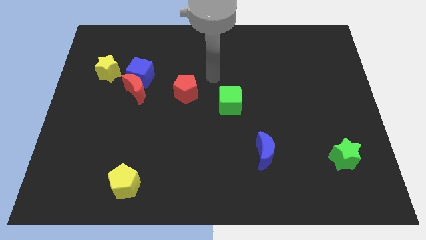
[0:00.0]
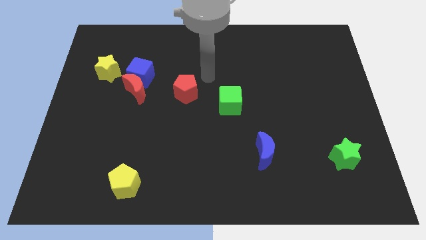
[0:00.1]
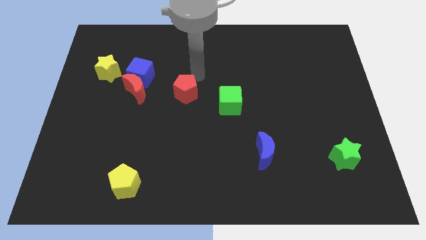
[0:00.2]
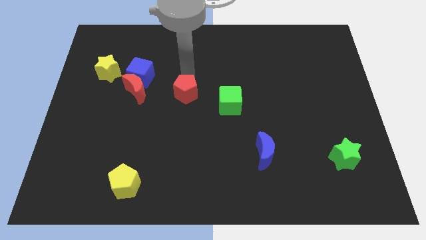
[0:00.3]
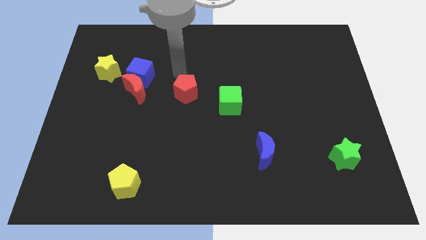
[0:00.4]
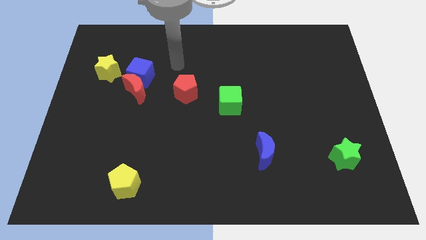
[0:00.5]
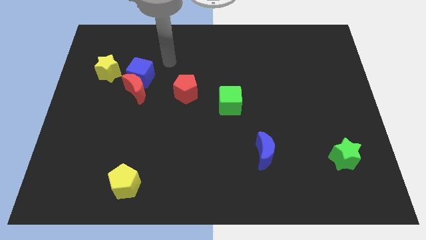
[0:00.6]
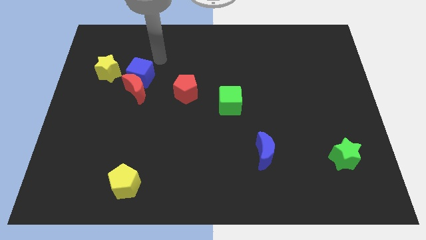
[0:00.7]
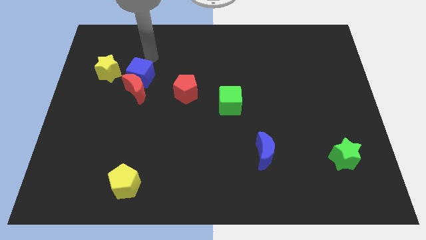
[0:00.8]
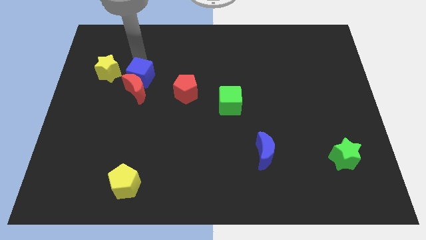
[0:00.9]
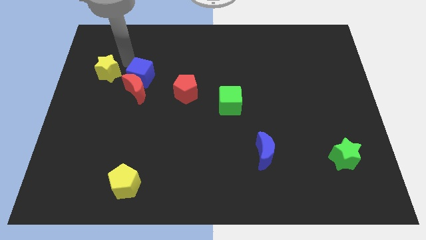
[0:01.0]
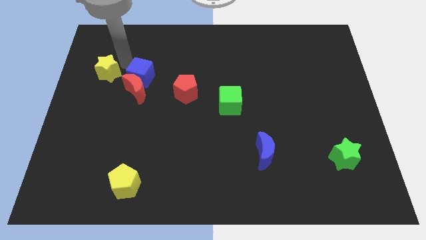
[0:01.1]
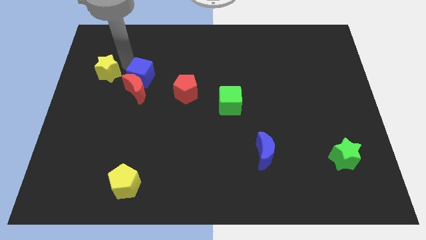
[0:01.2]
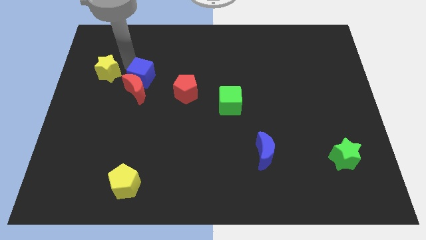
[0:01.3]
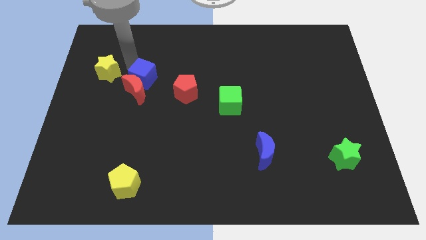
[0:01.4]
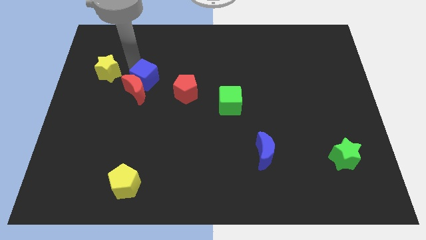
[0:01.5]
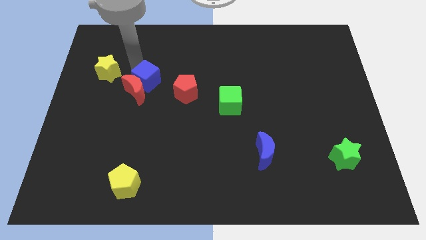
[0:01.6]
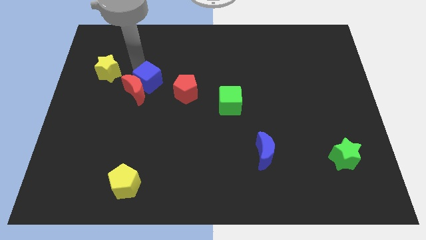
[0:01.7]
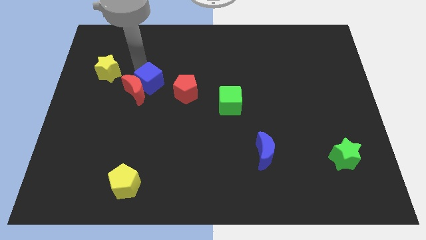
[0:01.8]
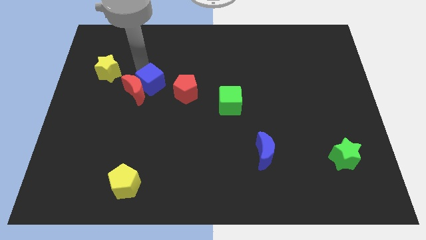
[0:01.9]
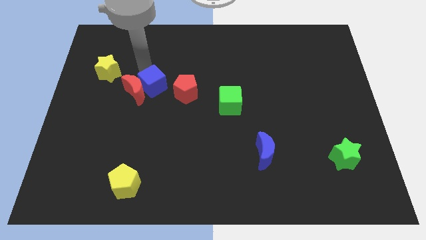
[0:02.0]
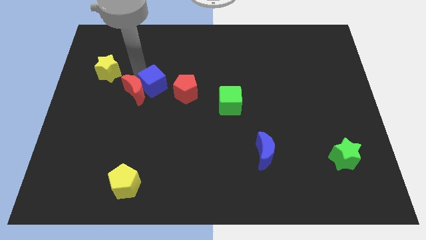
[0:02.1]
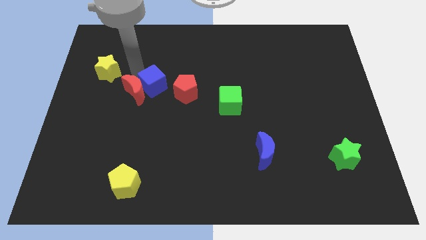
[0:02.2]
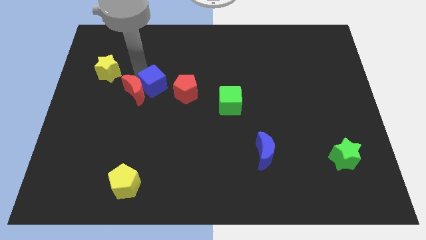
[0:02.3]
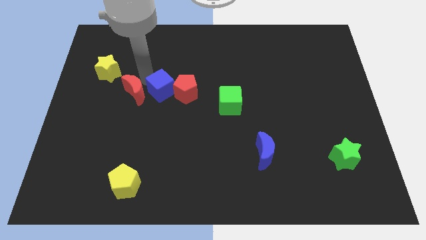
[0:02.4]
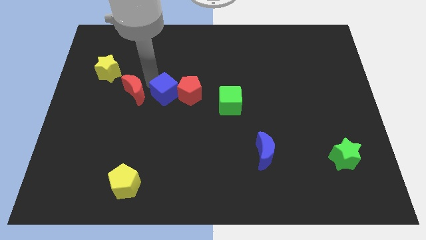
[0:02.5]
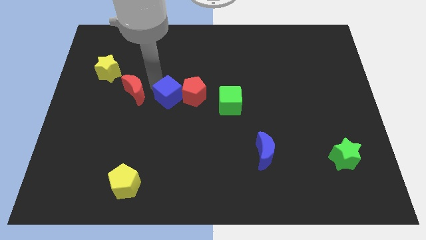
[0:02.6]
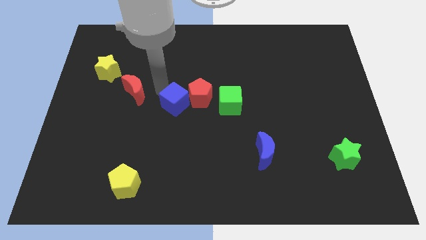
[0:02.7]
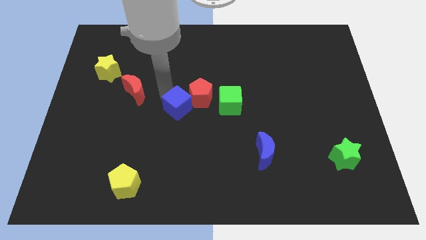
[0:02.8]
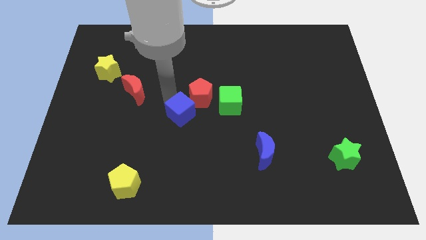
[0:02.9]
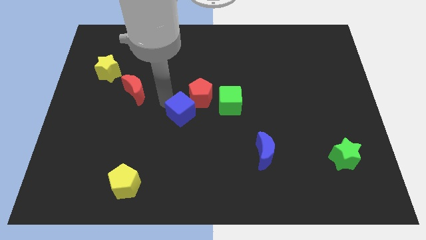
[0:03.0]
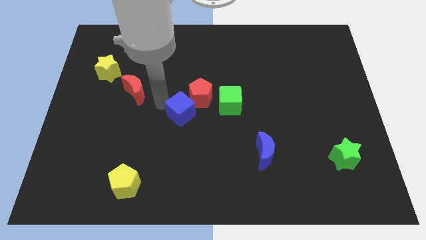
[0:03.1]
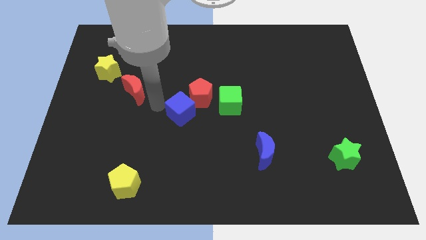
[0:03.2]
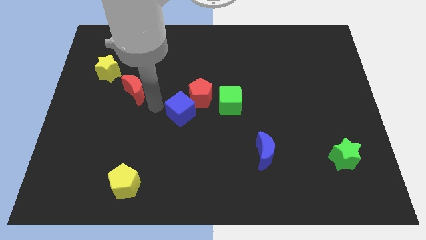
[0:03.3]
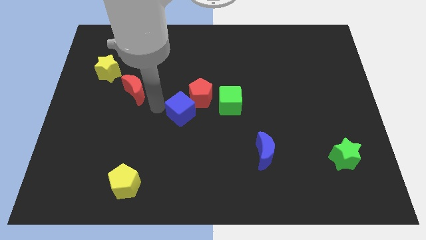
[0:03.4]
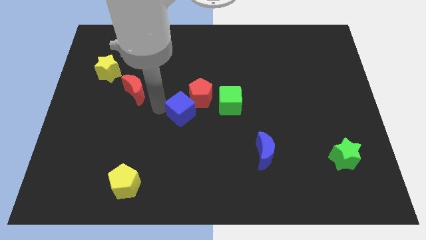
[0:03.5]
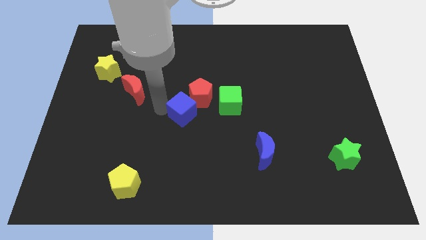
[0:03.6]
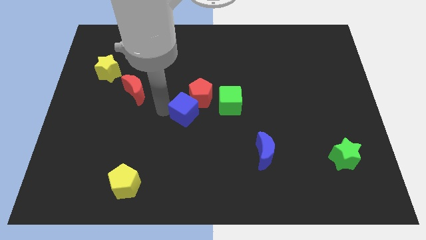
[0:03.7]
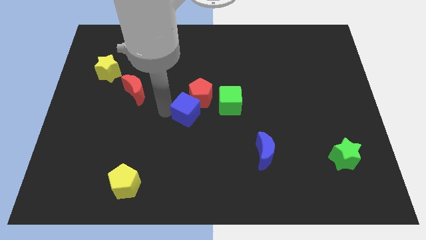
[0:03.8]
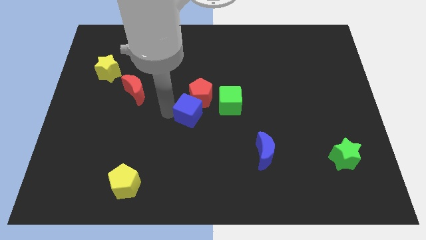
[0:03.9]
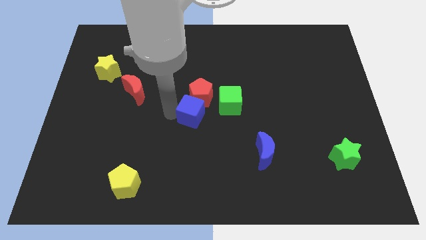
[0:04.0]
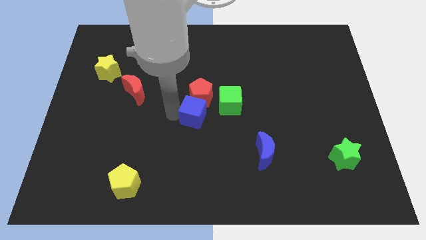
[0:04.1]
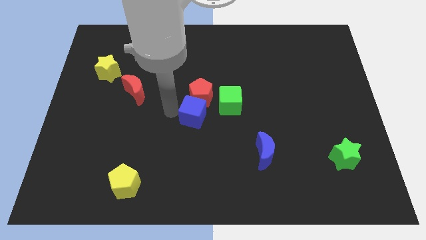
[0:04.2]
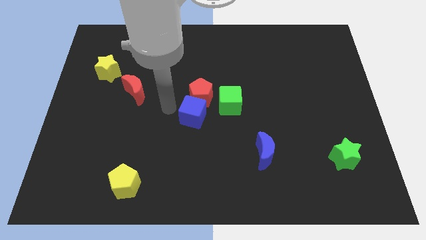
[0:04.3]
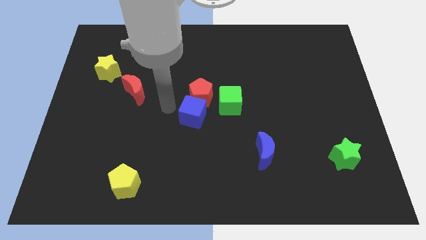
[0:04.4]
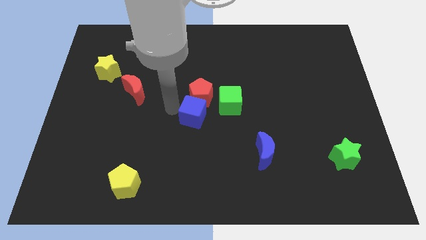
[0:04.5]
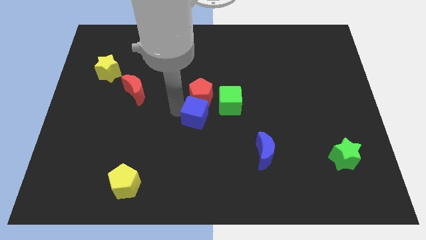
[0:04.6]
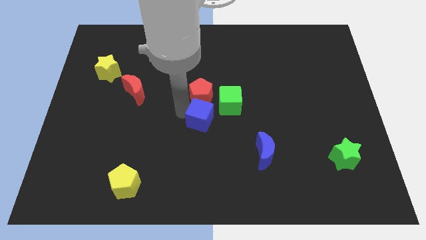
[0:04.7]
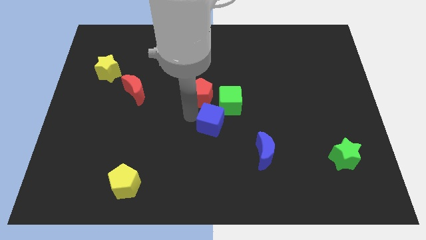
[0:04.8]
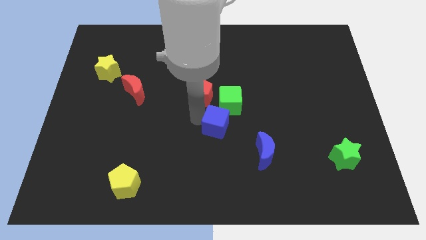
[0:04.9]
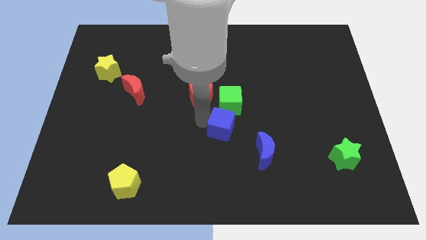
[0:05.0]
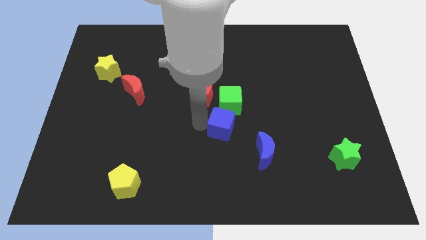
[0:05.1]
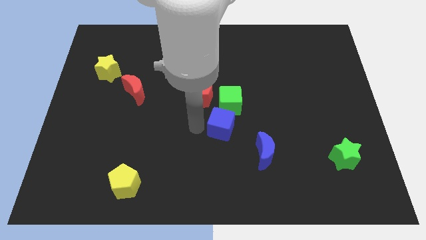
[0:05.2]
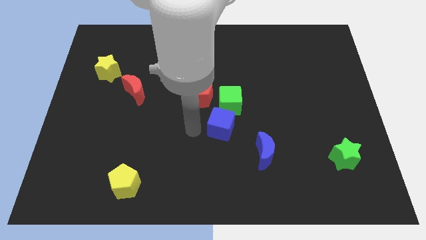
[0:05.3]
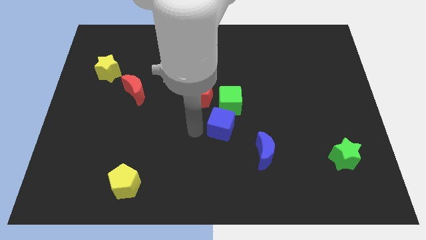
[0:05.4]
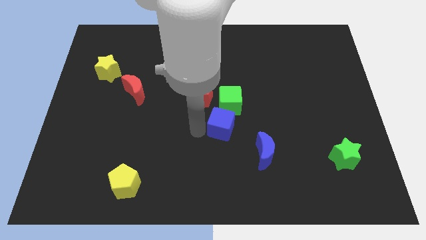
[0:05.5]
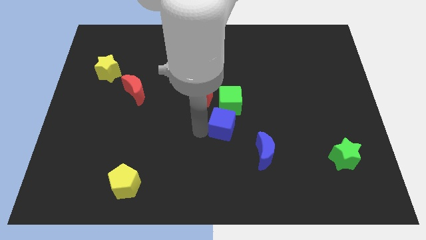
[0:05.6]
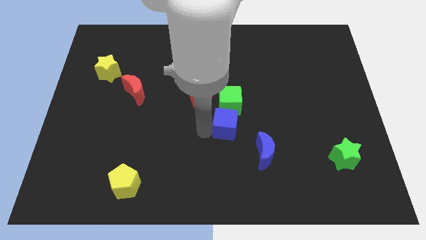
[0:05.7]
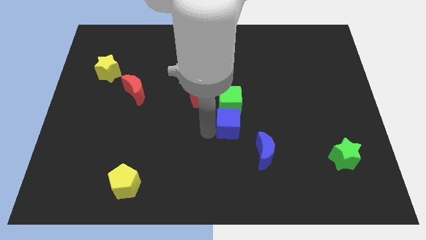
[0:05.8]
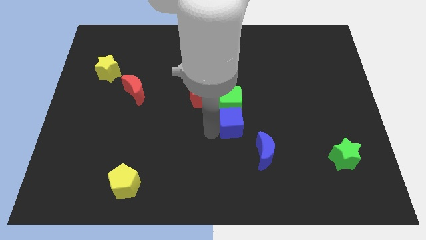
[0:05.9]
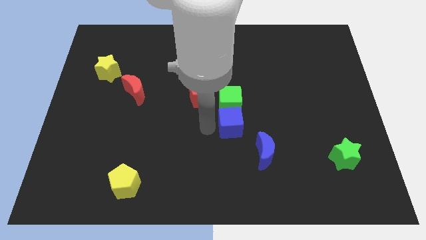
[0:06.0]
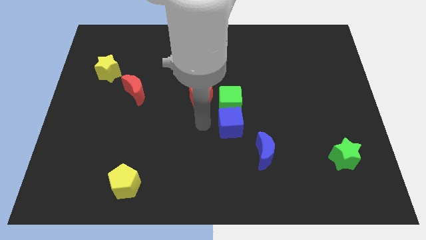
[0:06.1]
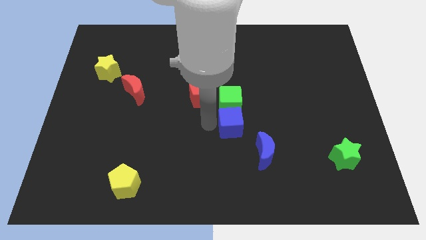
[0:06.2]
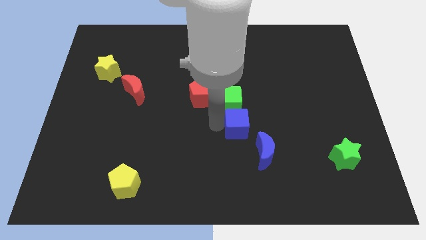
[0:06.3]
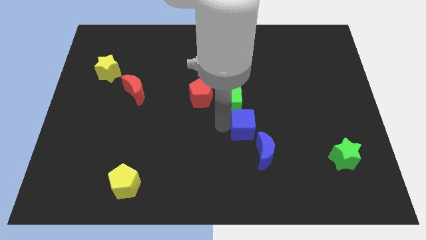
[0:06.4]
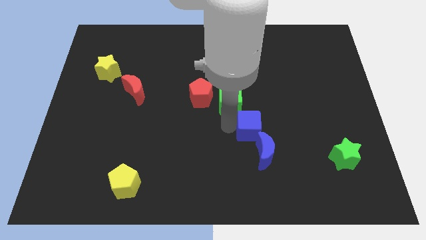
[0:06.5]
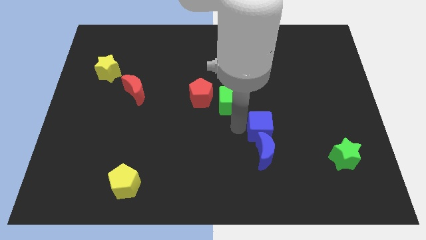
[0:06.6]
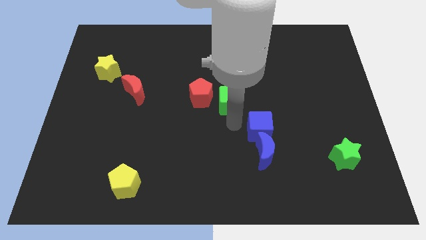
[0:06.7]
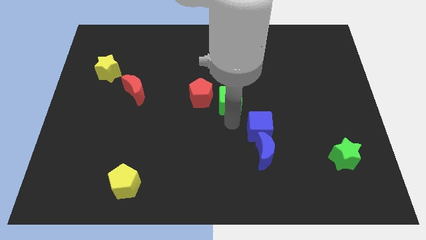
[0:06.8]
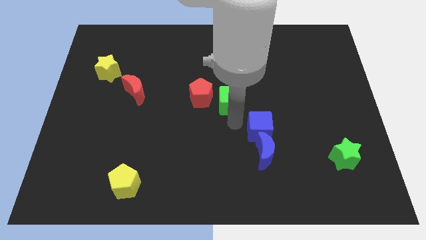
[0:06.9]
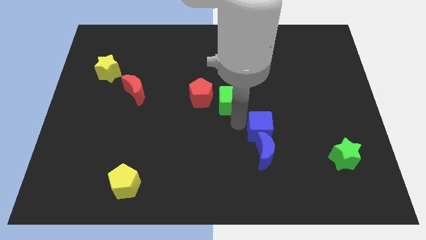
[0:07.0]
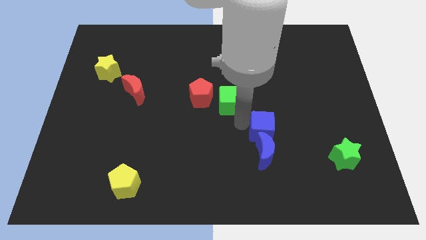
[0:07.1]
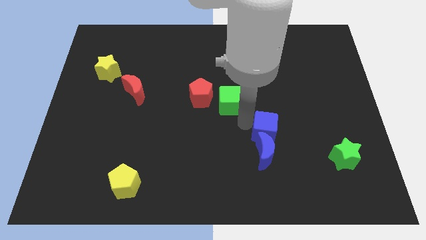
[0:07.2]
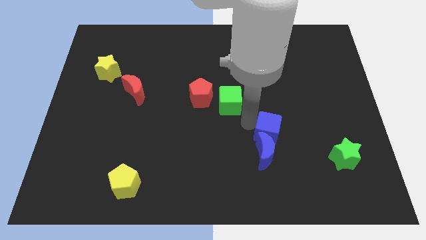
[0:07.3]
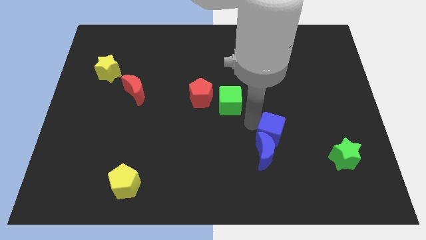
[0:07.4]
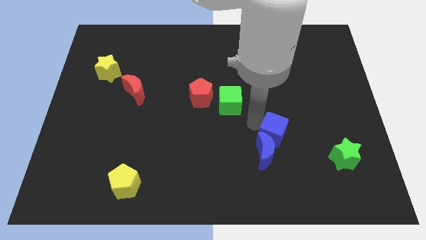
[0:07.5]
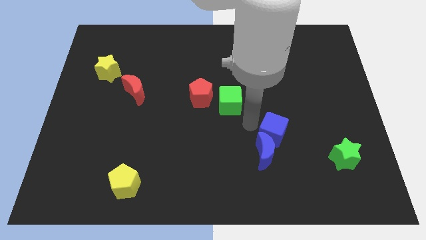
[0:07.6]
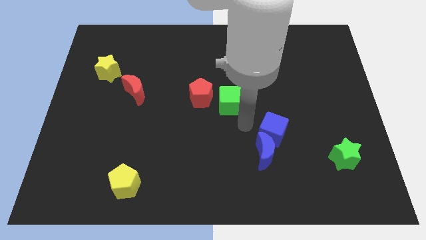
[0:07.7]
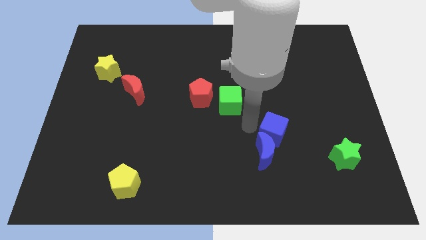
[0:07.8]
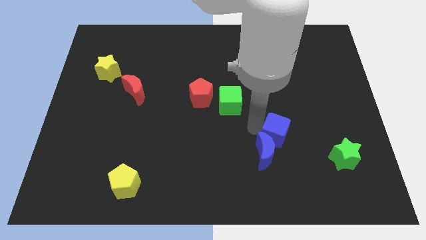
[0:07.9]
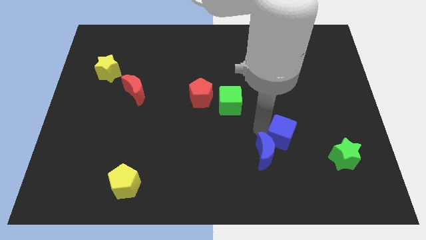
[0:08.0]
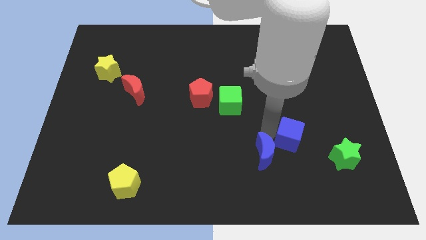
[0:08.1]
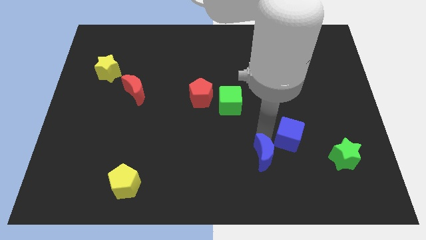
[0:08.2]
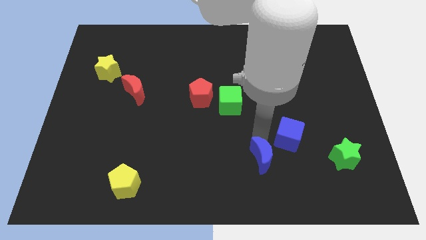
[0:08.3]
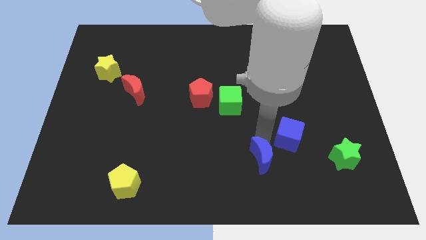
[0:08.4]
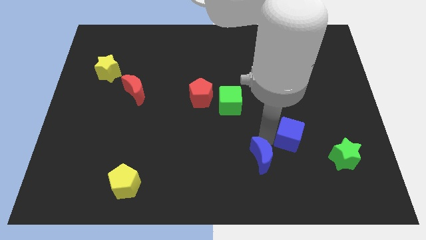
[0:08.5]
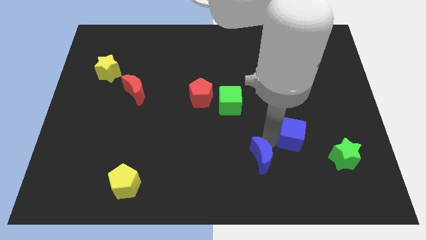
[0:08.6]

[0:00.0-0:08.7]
put the blue cube to the top left side of the green star
